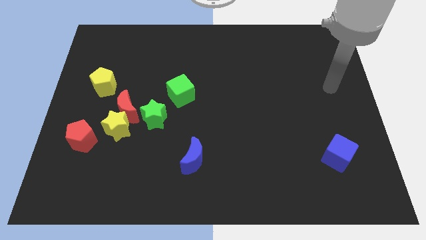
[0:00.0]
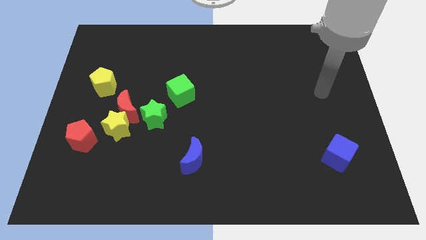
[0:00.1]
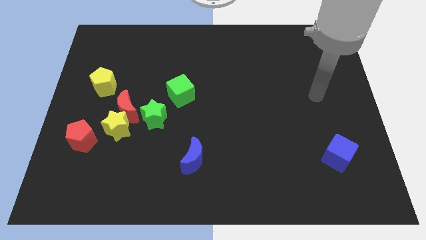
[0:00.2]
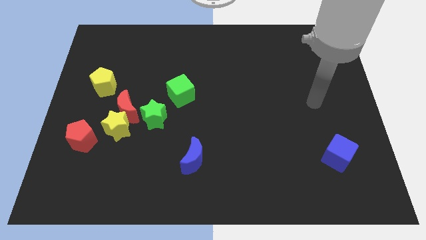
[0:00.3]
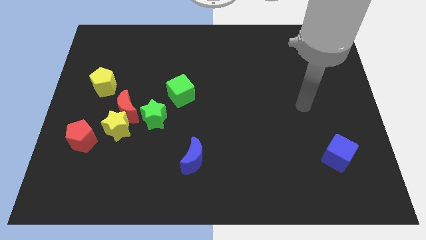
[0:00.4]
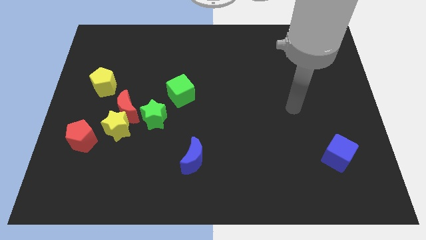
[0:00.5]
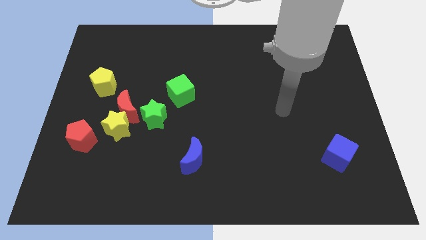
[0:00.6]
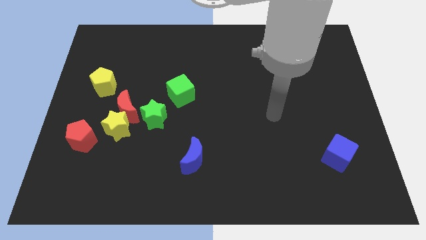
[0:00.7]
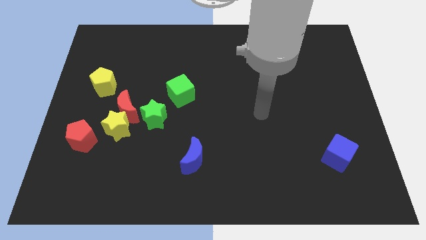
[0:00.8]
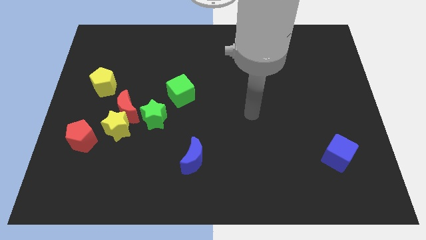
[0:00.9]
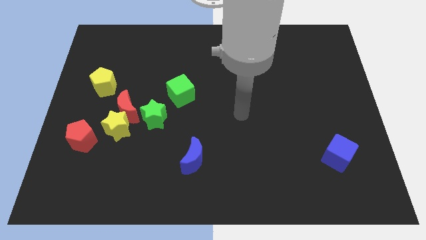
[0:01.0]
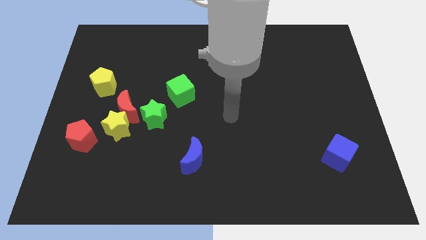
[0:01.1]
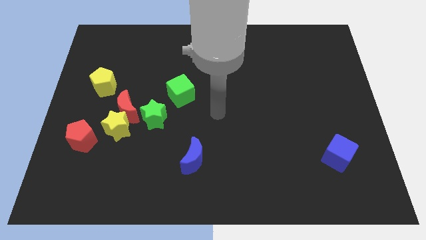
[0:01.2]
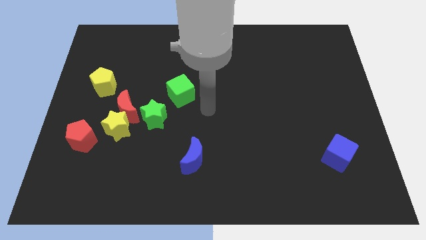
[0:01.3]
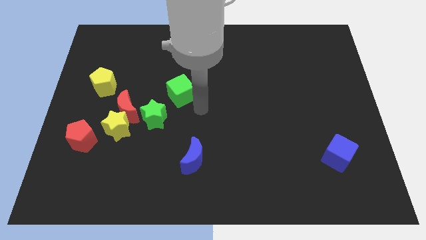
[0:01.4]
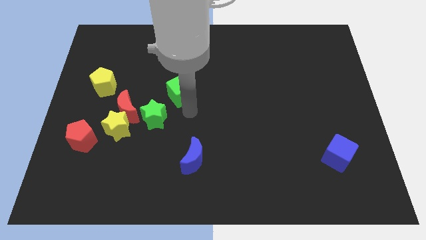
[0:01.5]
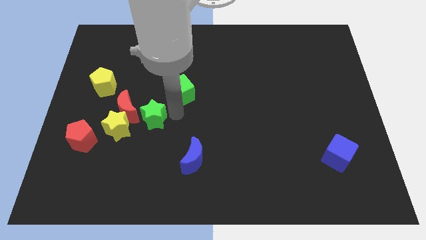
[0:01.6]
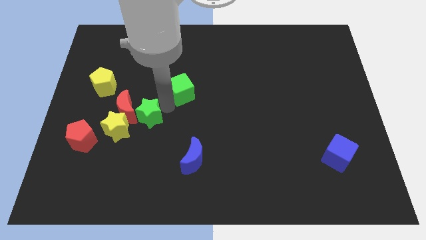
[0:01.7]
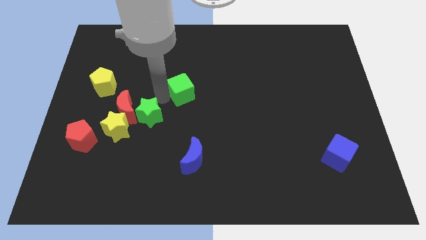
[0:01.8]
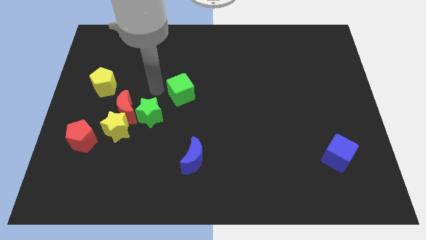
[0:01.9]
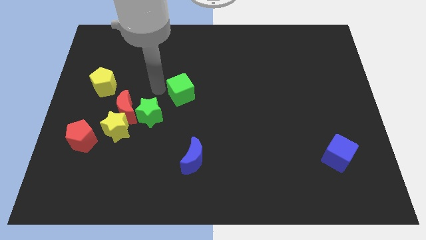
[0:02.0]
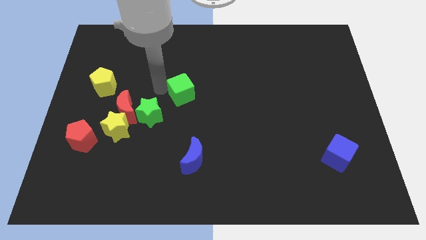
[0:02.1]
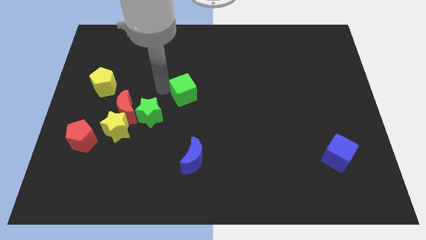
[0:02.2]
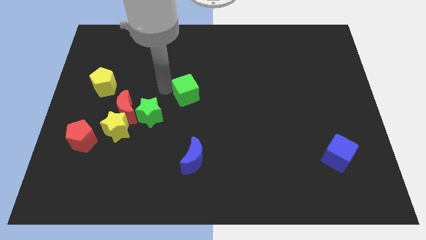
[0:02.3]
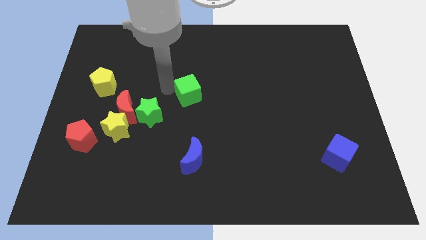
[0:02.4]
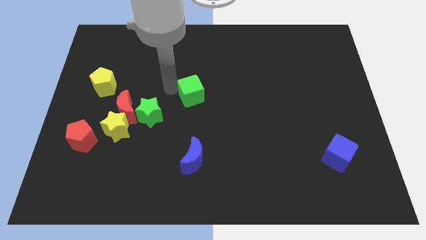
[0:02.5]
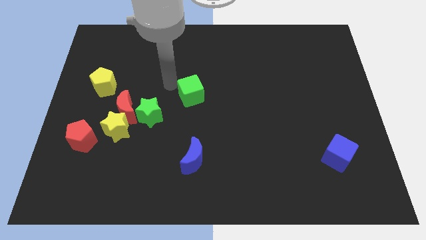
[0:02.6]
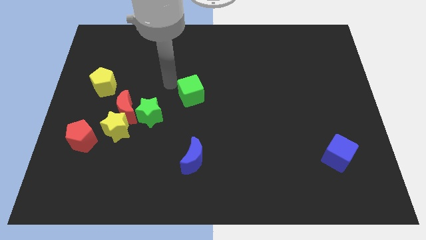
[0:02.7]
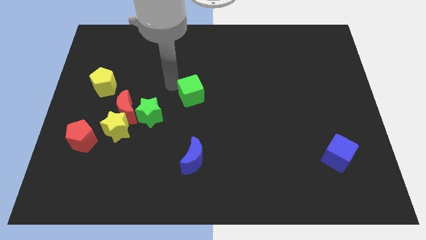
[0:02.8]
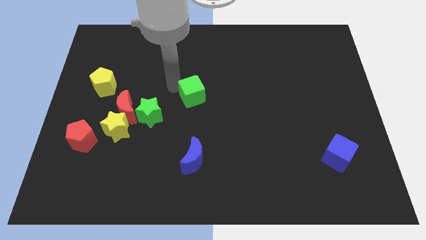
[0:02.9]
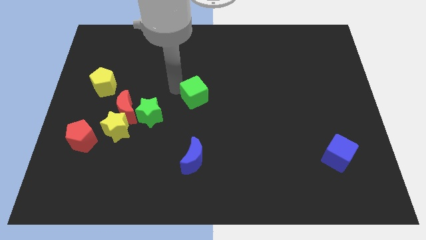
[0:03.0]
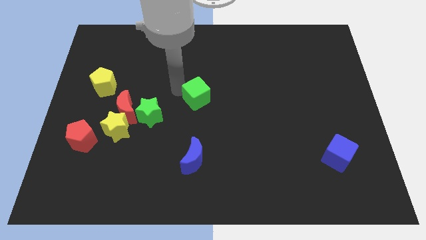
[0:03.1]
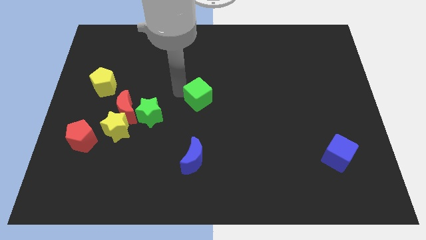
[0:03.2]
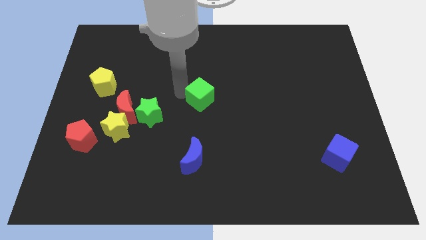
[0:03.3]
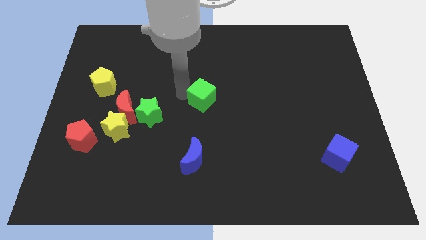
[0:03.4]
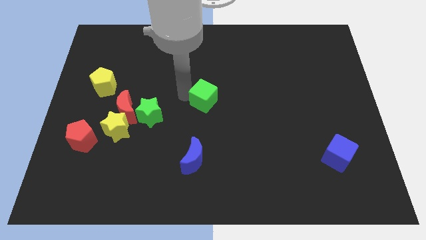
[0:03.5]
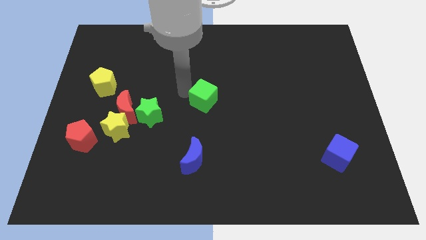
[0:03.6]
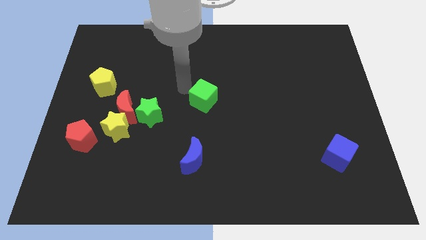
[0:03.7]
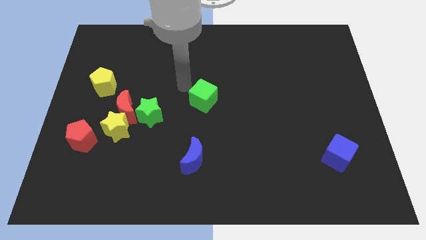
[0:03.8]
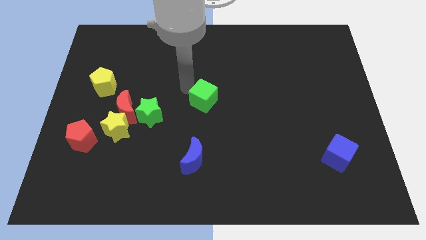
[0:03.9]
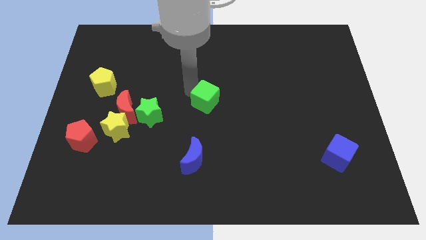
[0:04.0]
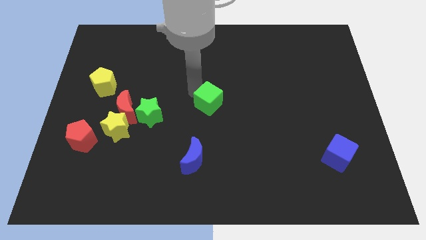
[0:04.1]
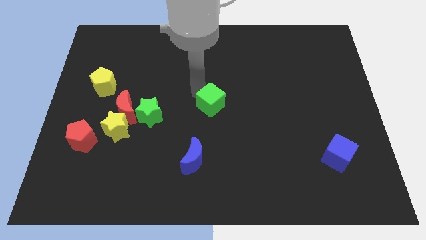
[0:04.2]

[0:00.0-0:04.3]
push the green cube downwards and to the right diagonally a little

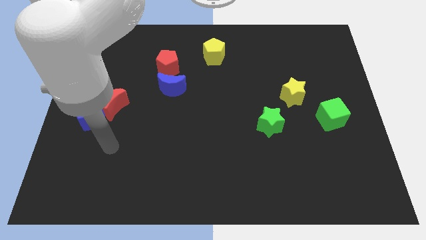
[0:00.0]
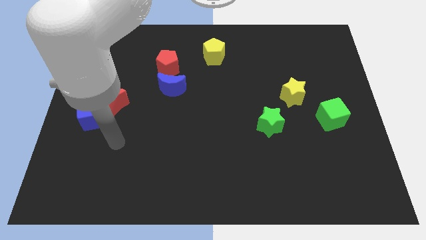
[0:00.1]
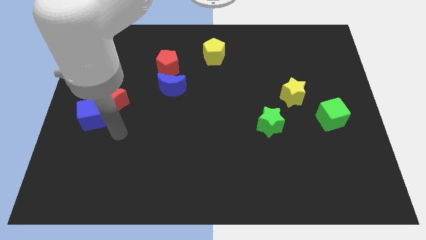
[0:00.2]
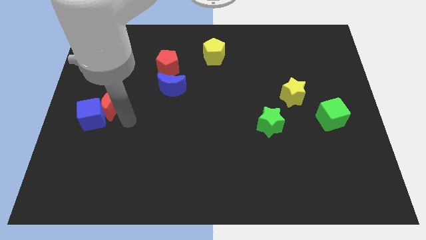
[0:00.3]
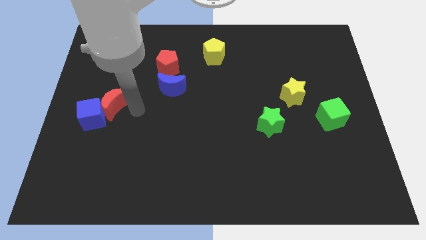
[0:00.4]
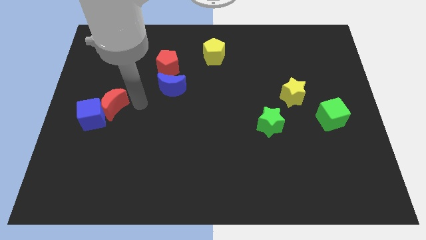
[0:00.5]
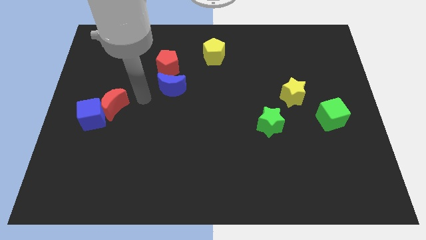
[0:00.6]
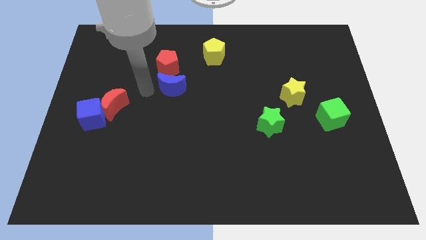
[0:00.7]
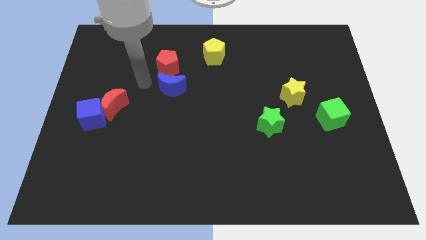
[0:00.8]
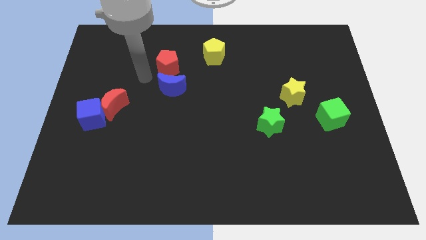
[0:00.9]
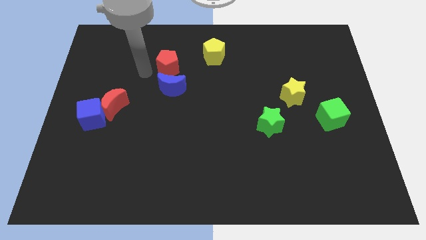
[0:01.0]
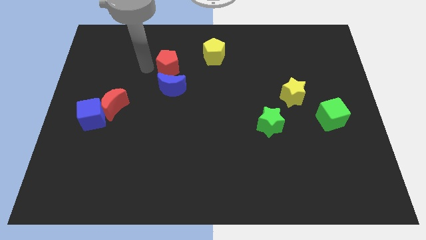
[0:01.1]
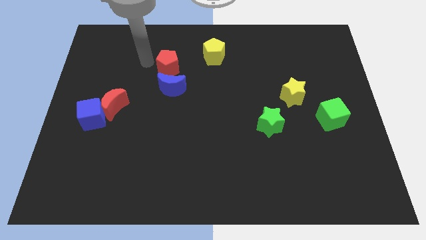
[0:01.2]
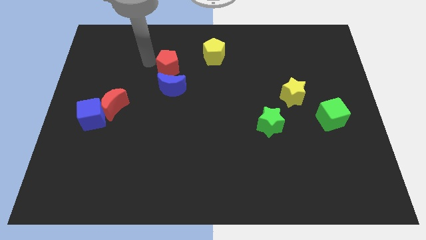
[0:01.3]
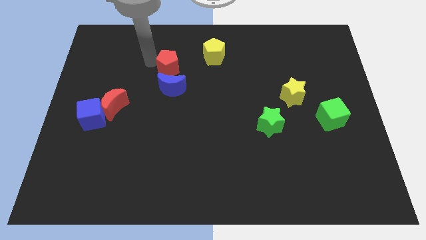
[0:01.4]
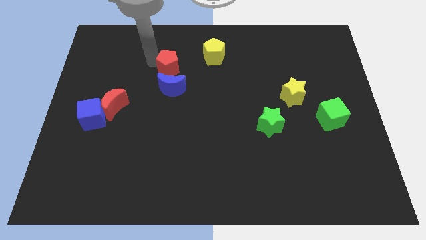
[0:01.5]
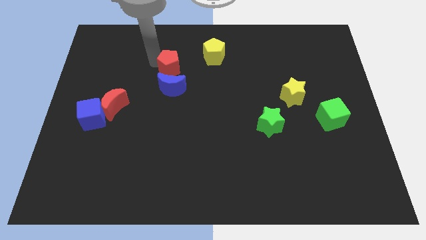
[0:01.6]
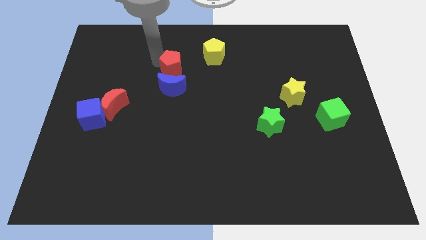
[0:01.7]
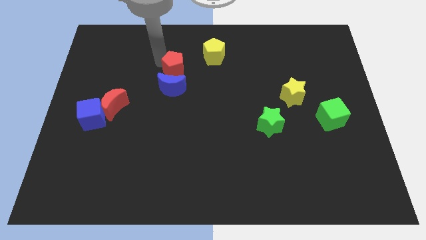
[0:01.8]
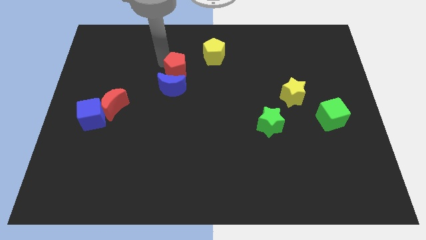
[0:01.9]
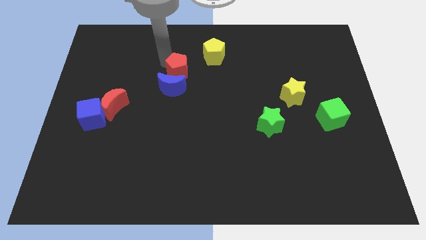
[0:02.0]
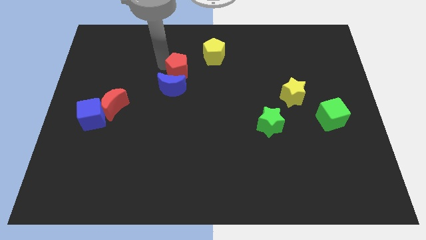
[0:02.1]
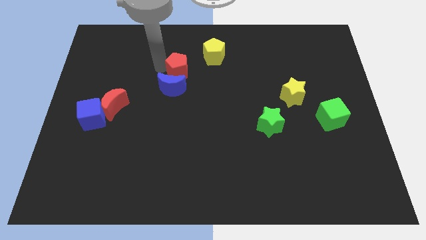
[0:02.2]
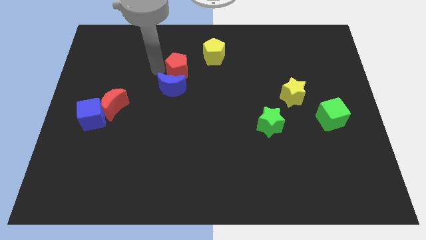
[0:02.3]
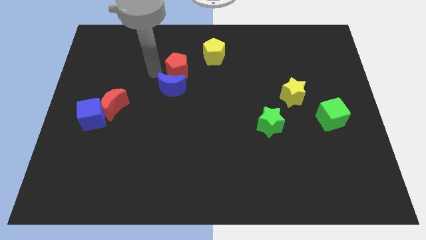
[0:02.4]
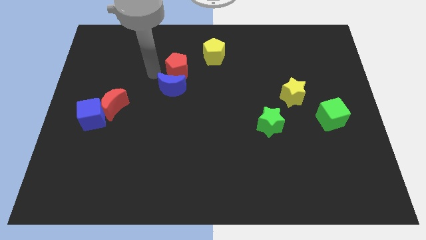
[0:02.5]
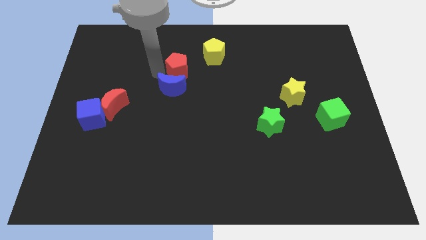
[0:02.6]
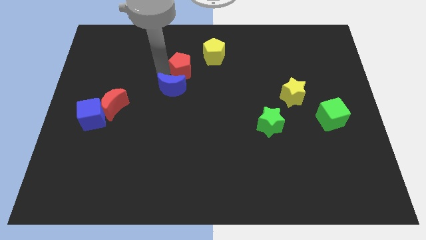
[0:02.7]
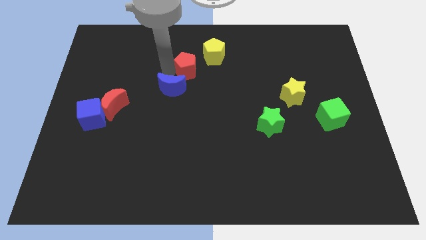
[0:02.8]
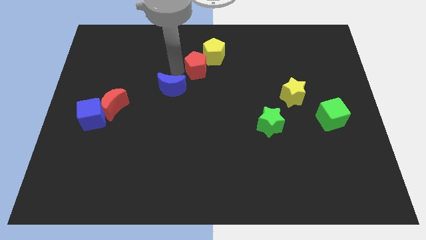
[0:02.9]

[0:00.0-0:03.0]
slide the red pentagon a little bit to the right

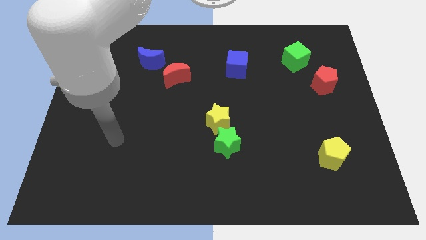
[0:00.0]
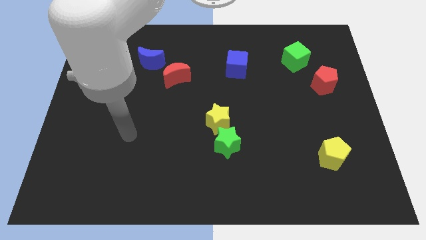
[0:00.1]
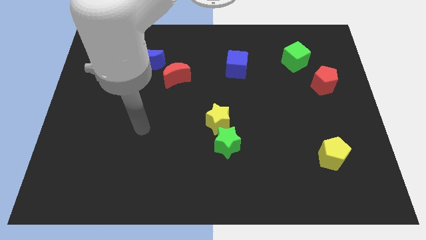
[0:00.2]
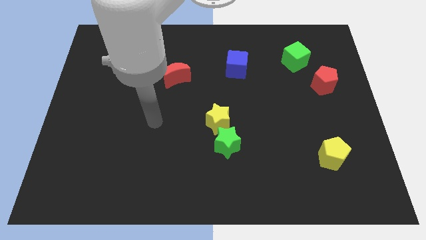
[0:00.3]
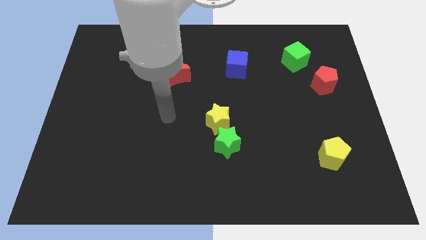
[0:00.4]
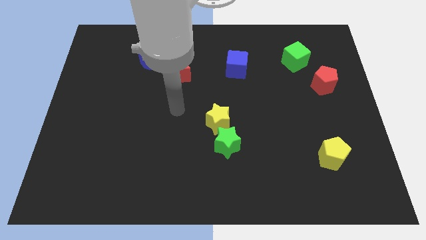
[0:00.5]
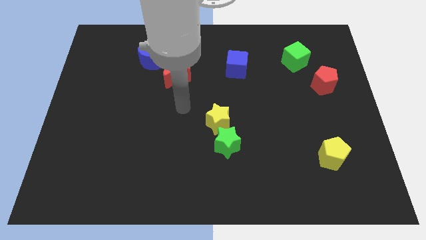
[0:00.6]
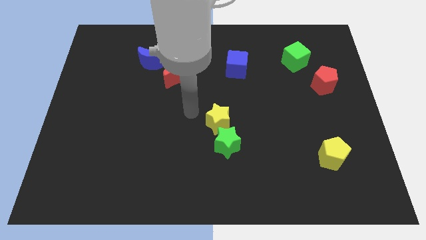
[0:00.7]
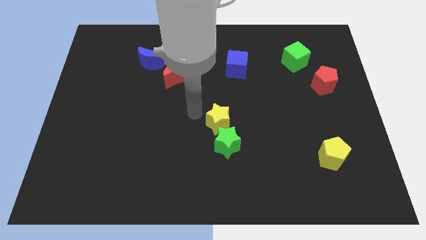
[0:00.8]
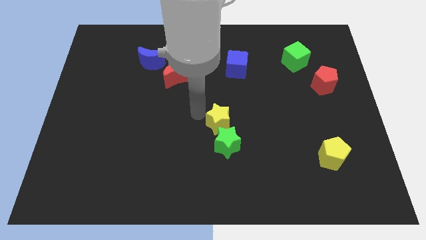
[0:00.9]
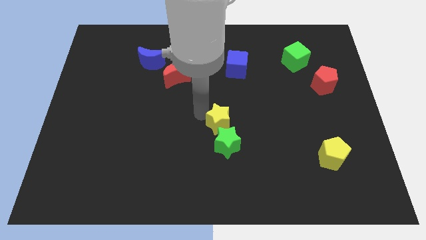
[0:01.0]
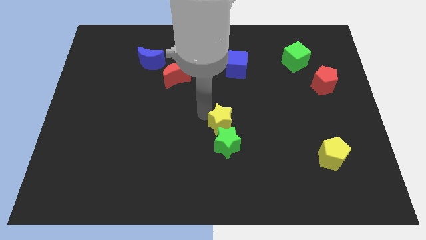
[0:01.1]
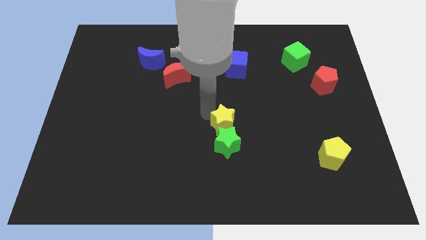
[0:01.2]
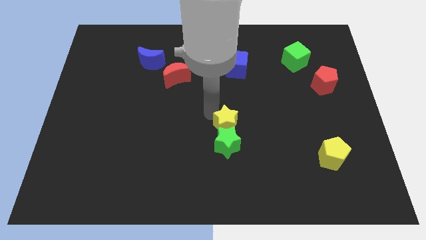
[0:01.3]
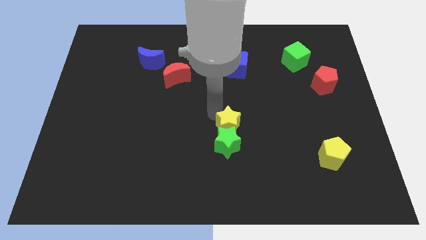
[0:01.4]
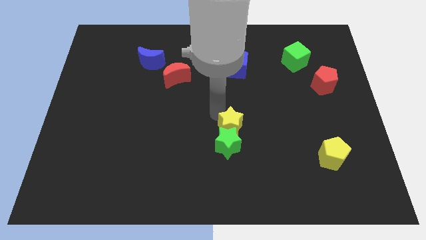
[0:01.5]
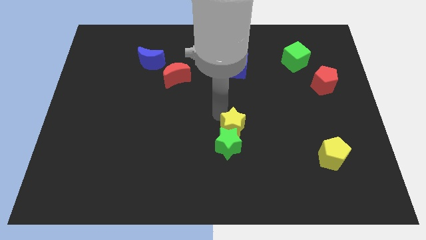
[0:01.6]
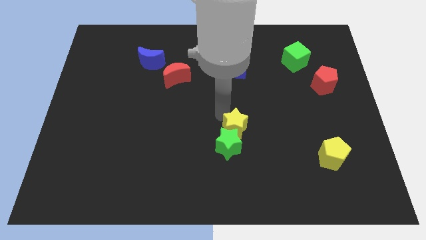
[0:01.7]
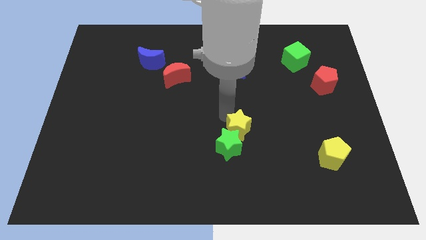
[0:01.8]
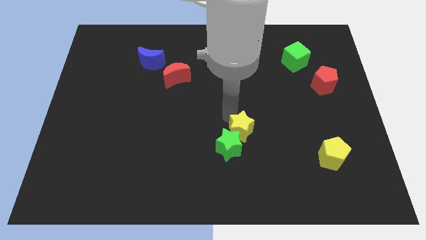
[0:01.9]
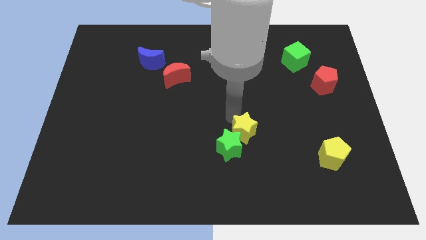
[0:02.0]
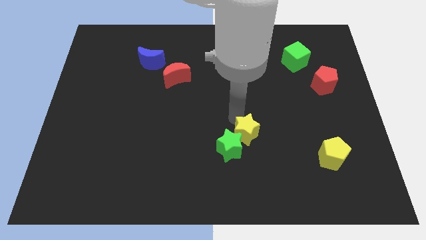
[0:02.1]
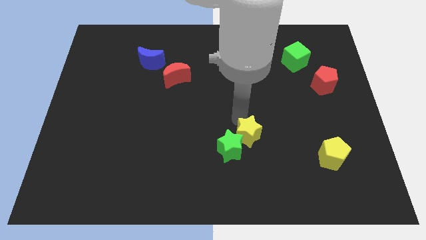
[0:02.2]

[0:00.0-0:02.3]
slightly push the yellow star downwards and then to the right
